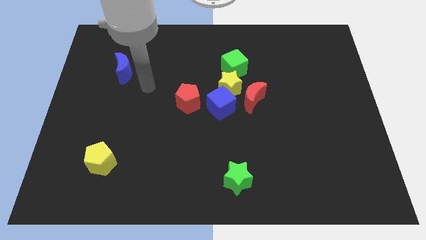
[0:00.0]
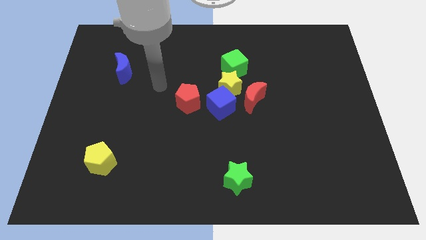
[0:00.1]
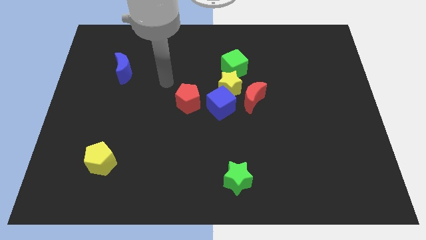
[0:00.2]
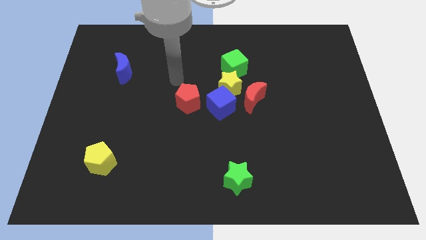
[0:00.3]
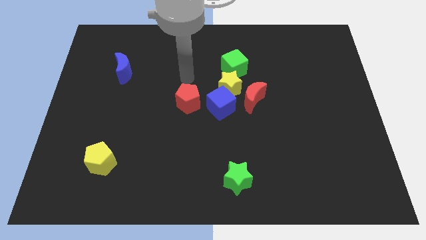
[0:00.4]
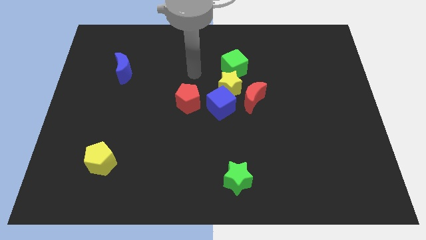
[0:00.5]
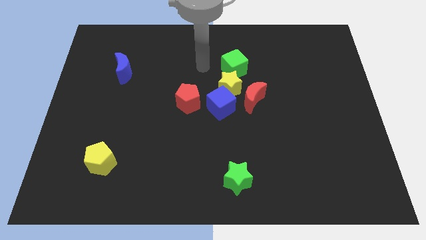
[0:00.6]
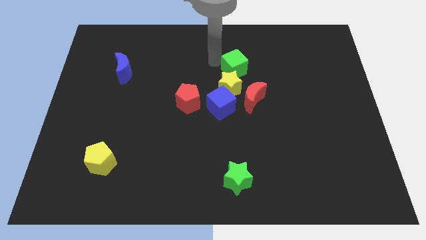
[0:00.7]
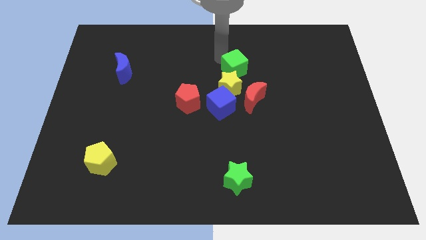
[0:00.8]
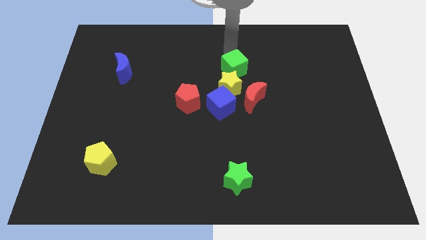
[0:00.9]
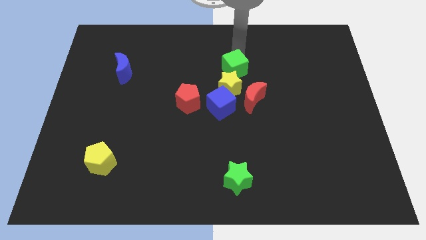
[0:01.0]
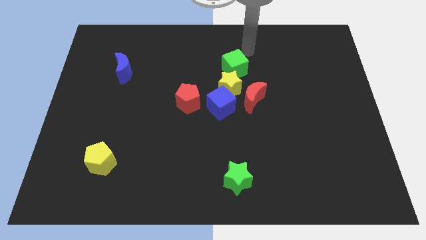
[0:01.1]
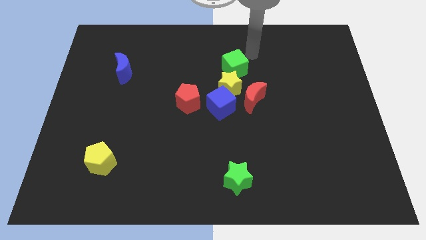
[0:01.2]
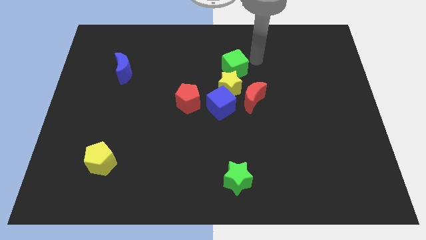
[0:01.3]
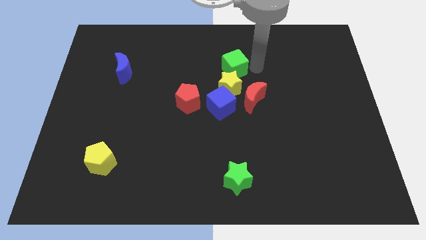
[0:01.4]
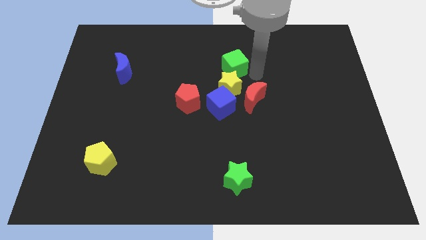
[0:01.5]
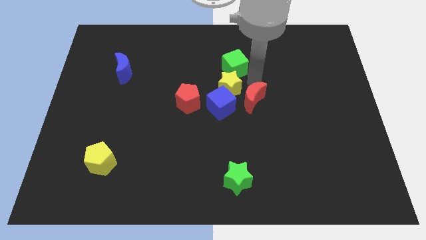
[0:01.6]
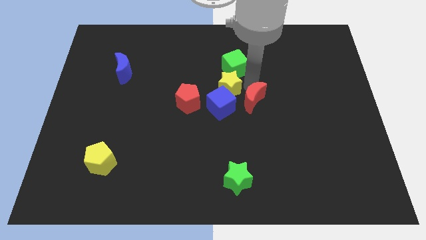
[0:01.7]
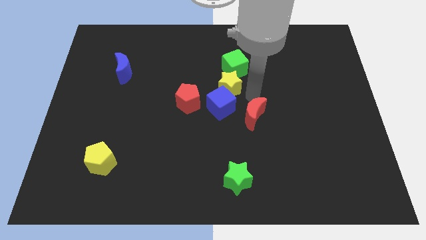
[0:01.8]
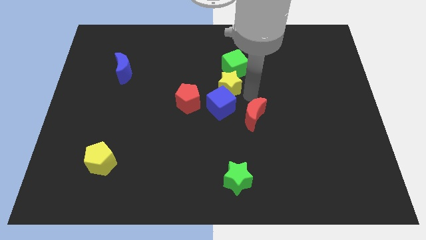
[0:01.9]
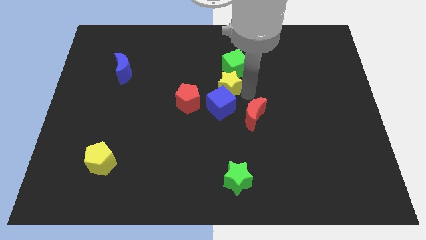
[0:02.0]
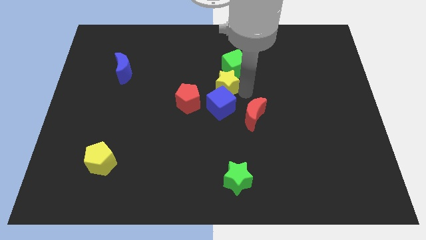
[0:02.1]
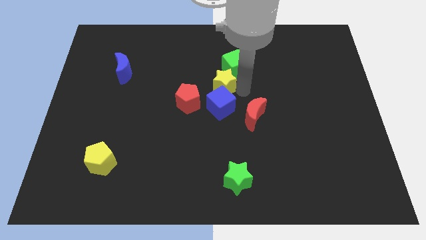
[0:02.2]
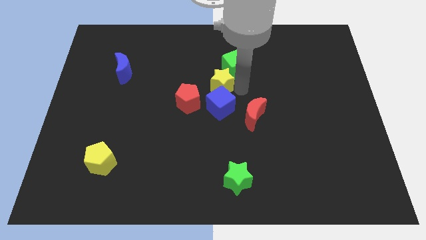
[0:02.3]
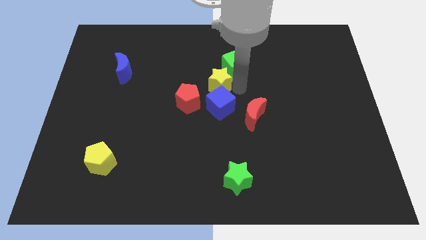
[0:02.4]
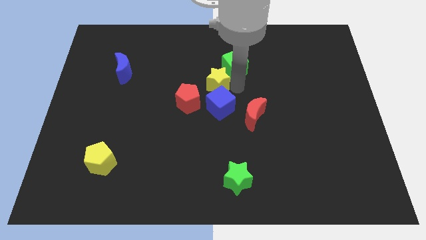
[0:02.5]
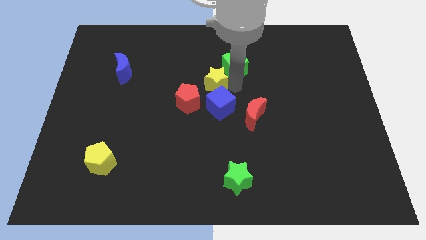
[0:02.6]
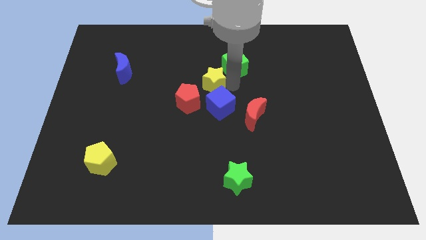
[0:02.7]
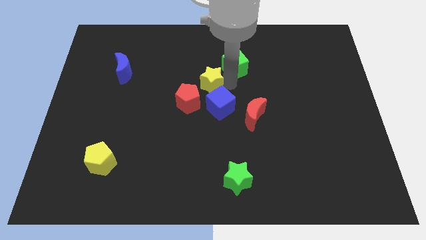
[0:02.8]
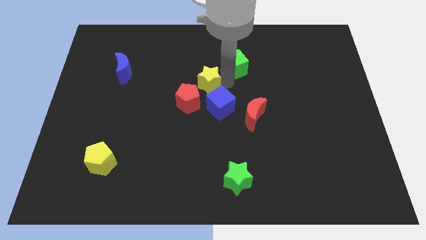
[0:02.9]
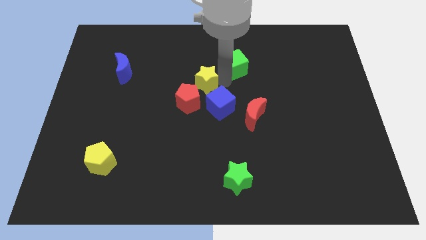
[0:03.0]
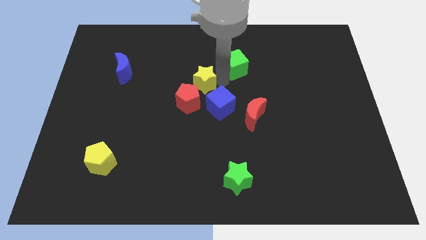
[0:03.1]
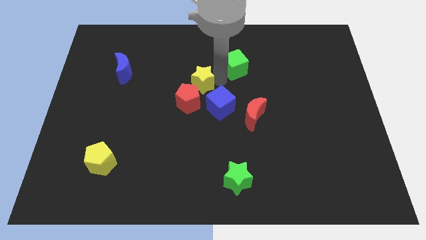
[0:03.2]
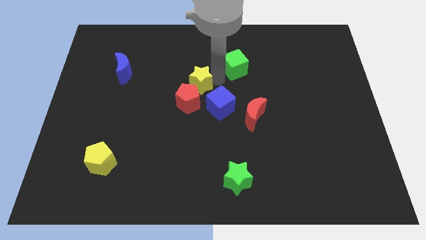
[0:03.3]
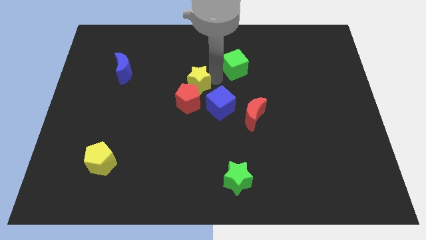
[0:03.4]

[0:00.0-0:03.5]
separate the yellow star from the blue cube, red moon, and green cube

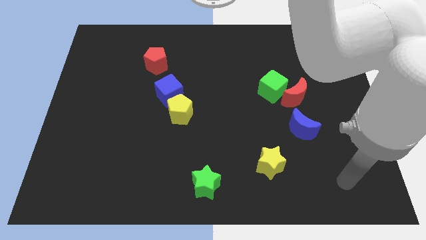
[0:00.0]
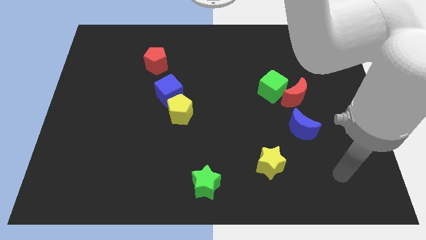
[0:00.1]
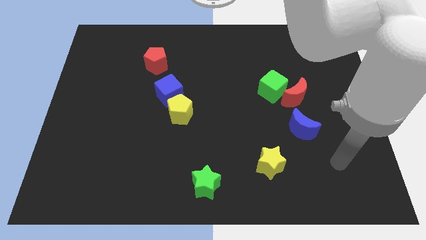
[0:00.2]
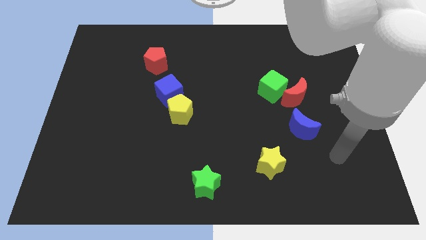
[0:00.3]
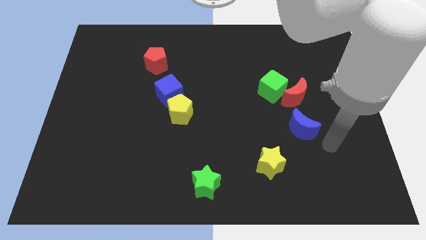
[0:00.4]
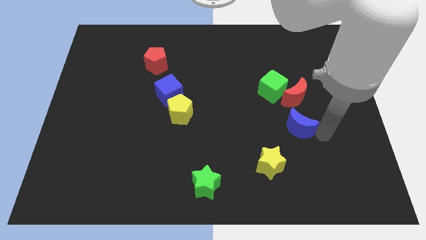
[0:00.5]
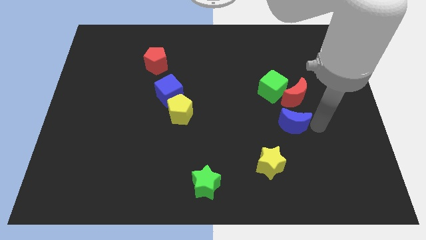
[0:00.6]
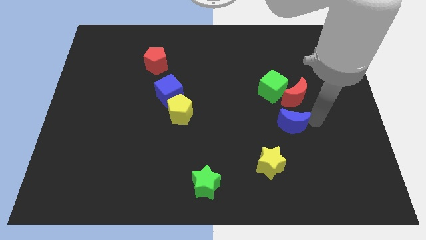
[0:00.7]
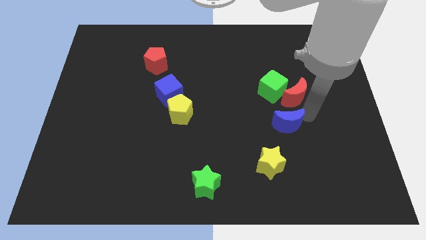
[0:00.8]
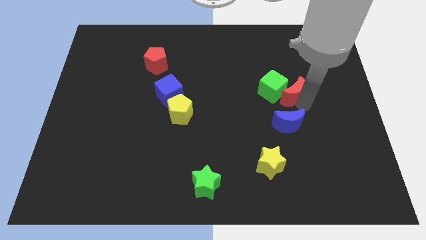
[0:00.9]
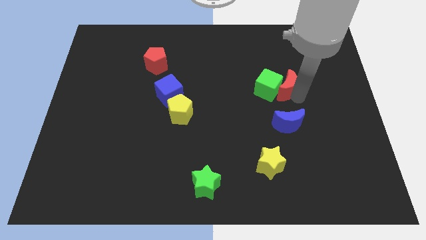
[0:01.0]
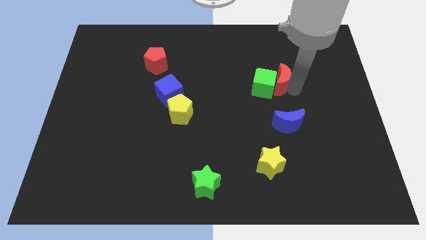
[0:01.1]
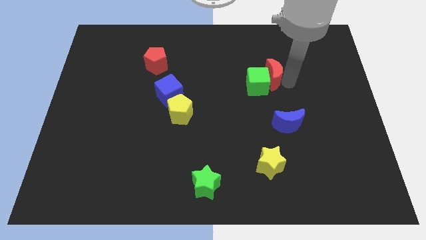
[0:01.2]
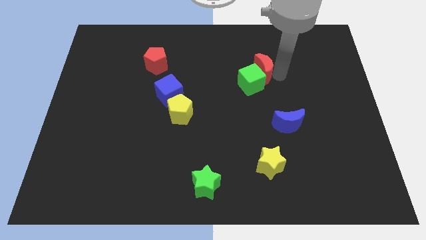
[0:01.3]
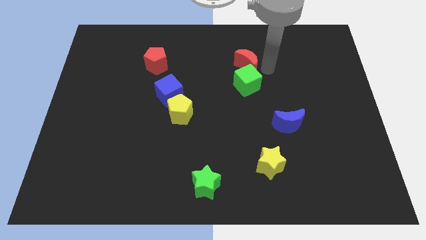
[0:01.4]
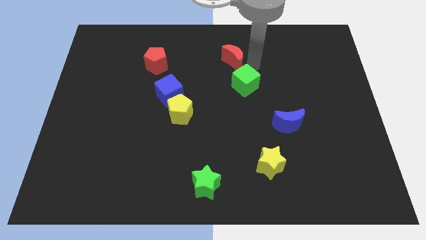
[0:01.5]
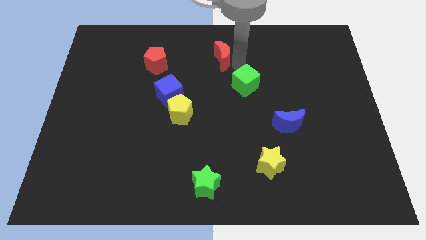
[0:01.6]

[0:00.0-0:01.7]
pull the green cube apart from the red moon

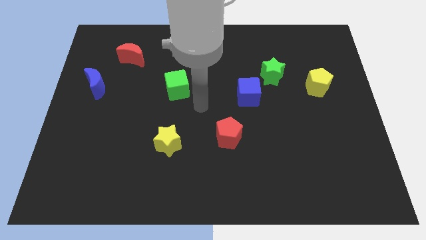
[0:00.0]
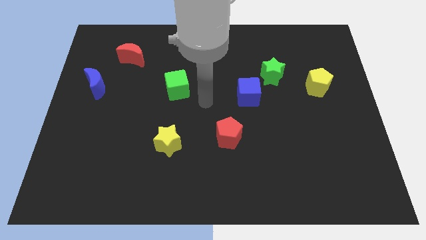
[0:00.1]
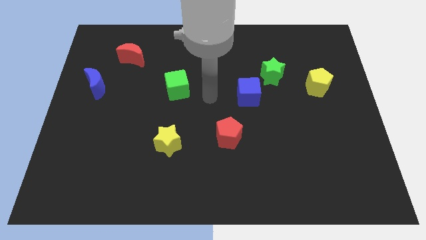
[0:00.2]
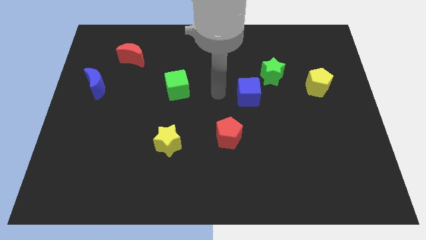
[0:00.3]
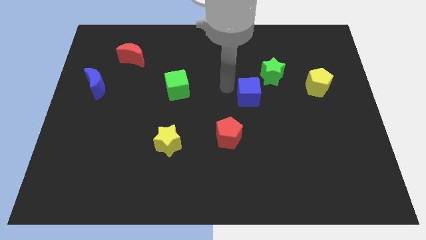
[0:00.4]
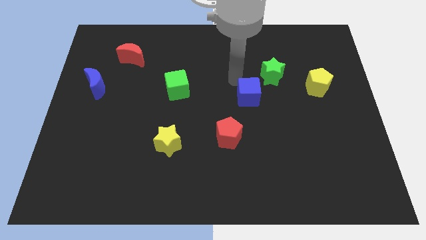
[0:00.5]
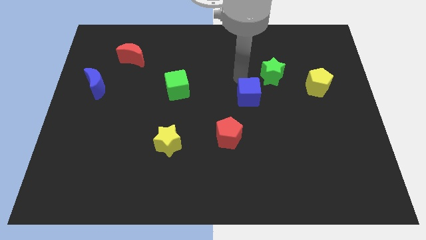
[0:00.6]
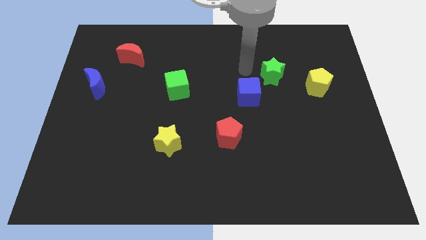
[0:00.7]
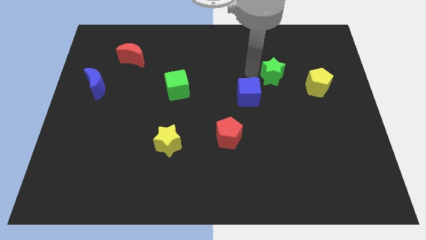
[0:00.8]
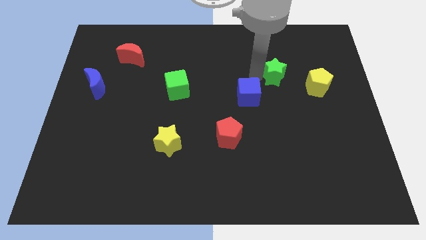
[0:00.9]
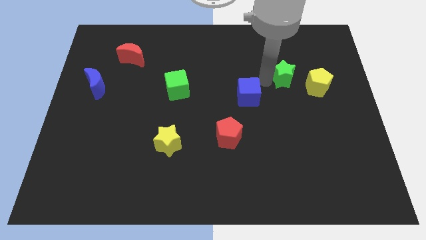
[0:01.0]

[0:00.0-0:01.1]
separate the blue cube from the green star

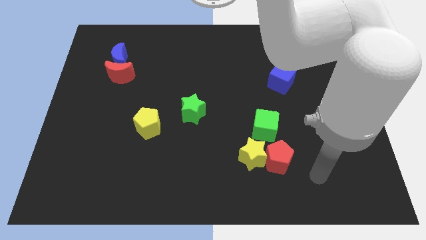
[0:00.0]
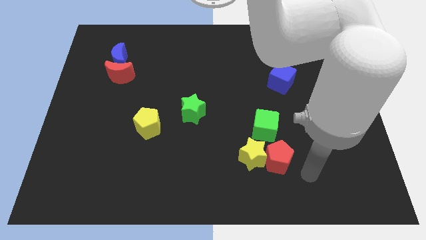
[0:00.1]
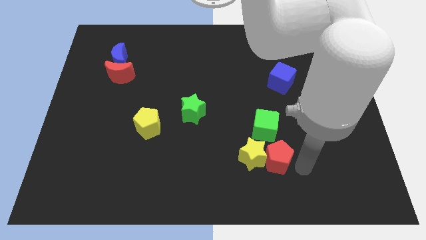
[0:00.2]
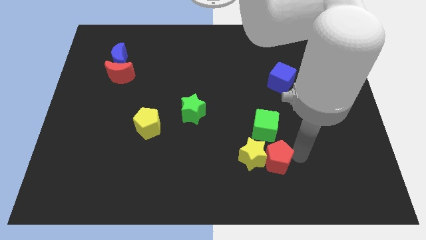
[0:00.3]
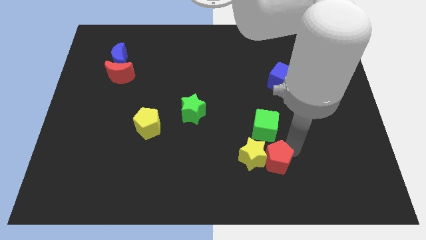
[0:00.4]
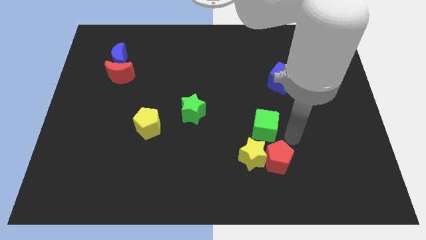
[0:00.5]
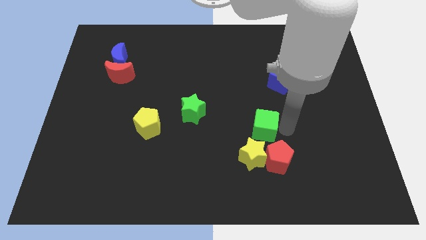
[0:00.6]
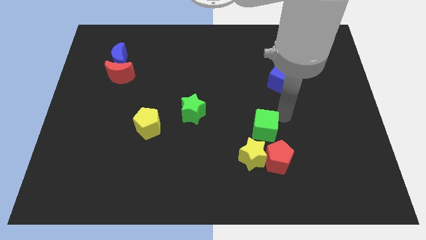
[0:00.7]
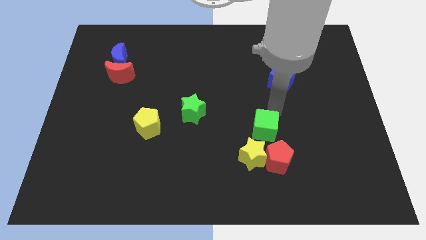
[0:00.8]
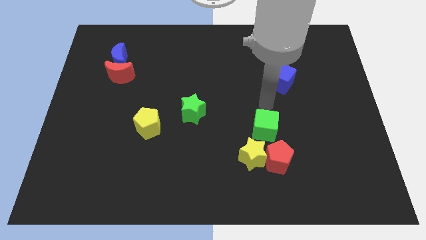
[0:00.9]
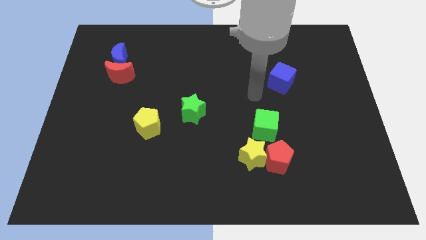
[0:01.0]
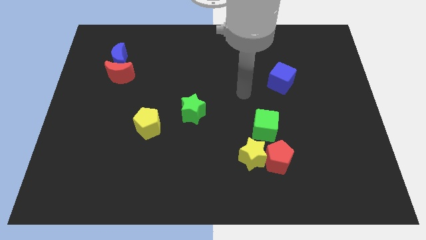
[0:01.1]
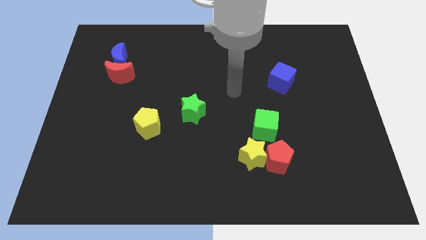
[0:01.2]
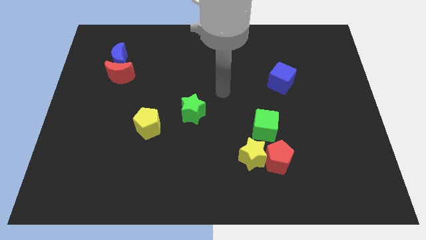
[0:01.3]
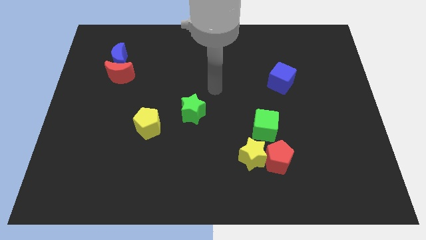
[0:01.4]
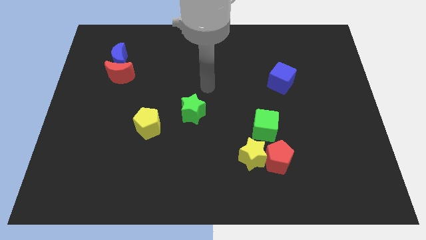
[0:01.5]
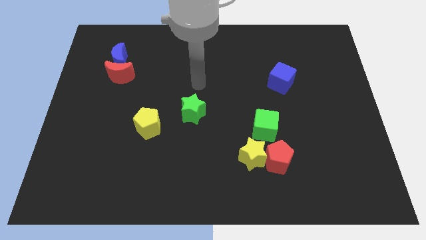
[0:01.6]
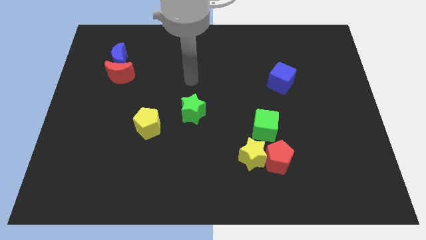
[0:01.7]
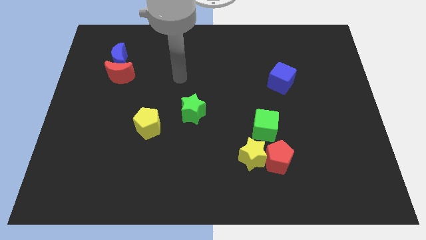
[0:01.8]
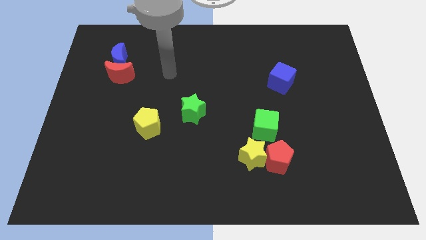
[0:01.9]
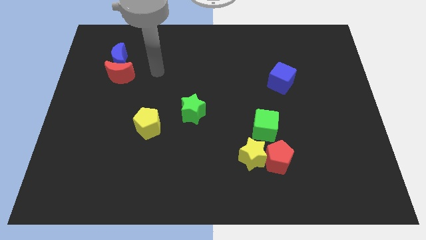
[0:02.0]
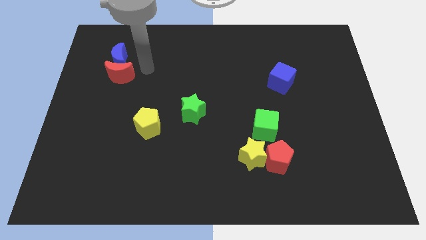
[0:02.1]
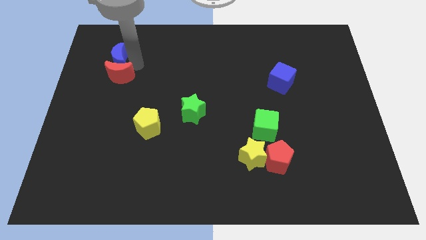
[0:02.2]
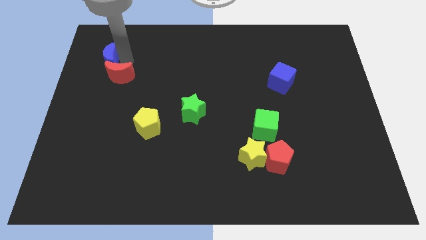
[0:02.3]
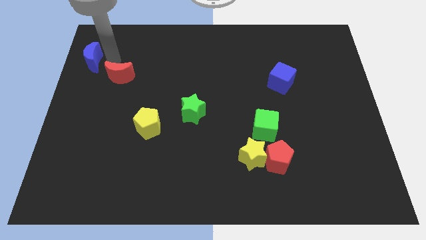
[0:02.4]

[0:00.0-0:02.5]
pull the red moon apart from the blue moon

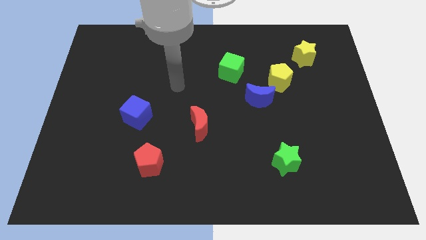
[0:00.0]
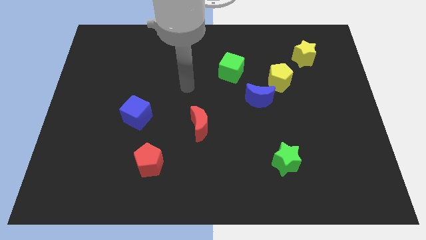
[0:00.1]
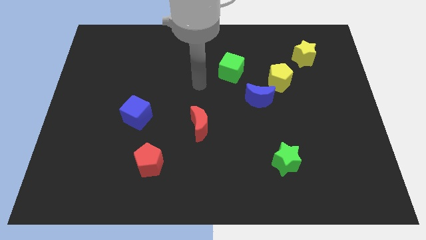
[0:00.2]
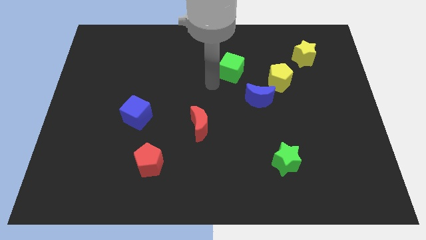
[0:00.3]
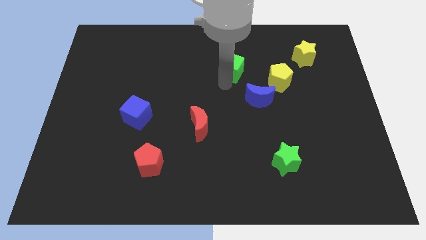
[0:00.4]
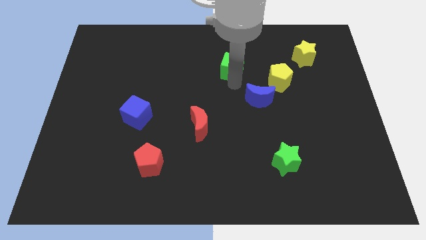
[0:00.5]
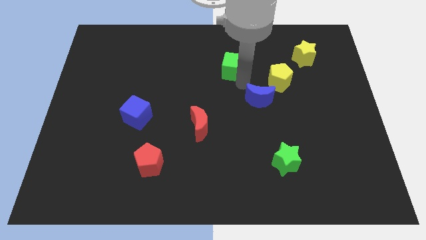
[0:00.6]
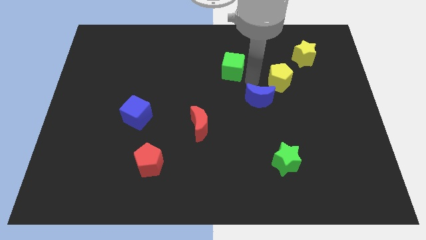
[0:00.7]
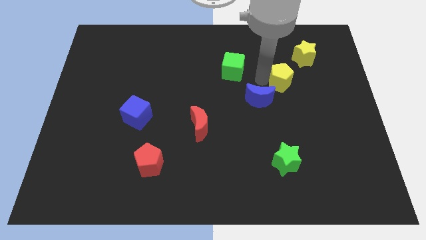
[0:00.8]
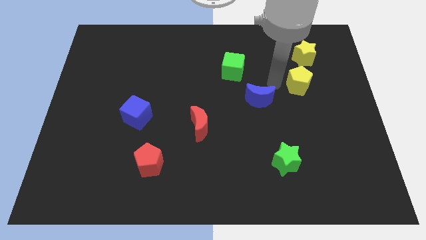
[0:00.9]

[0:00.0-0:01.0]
separate the blue moon from the yellow pentagon
